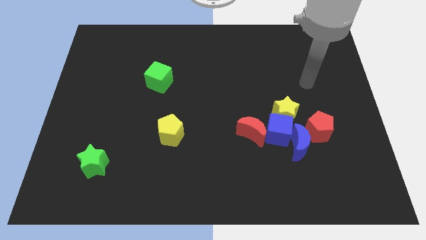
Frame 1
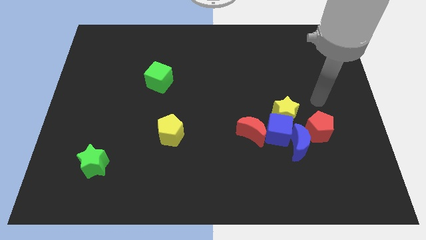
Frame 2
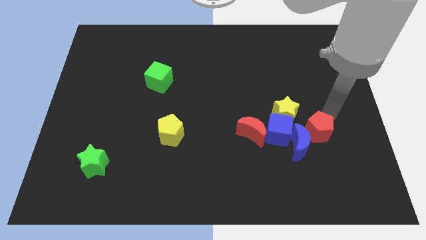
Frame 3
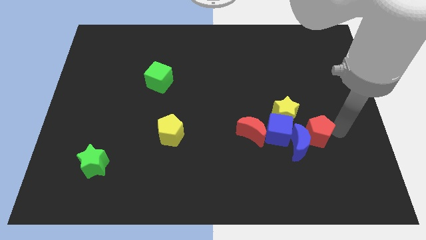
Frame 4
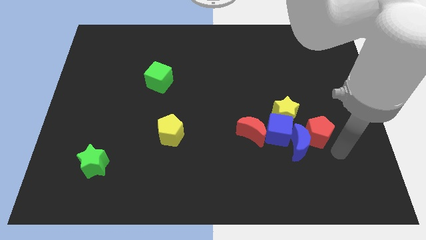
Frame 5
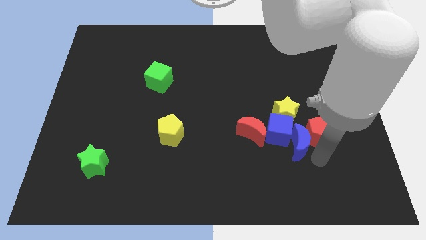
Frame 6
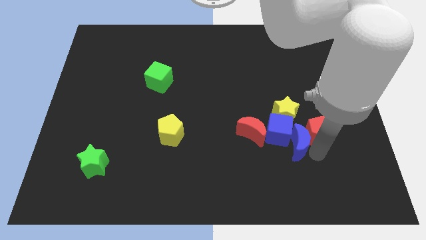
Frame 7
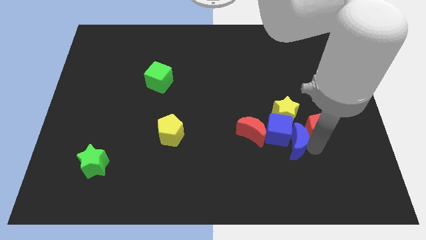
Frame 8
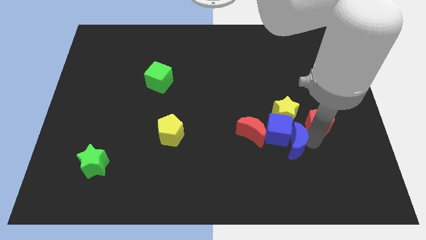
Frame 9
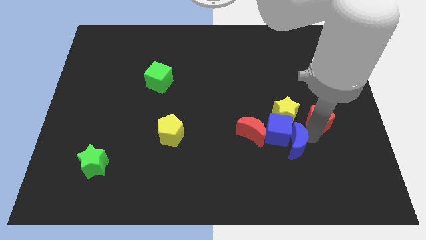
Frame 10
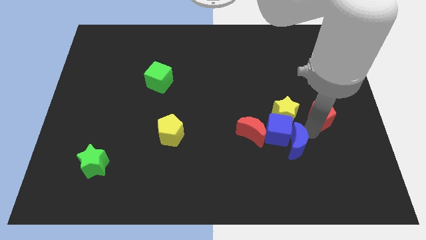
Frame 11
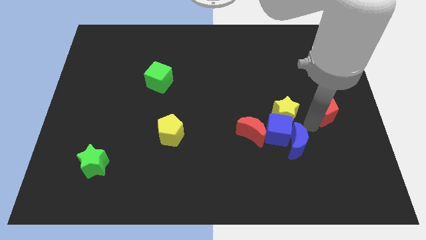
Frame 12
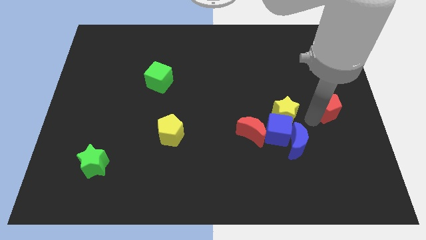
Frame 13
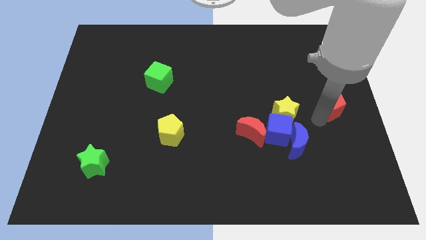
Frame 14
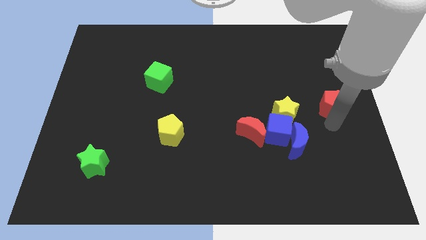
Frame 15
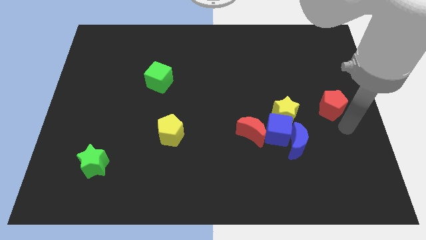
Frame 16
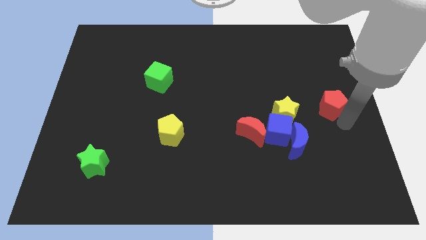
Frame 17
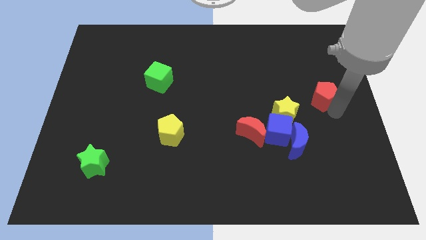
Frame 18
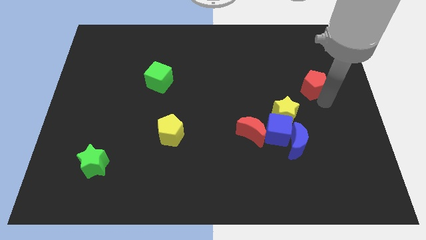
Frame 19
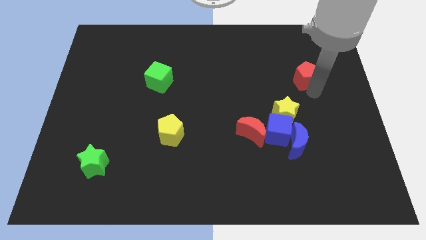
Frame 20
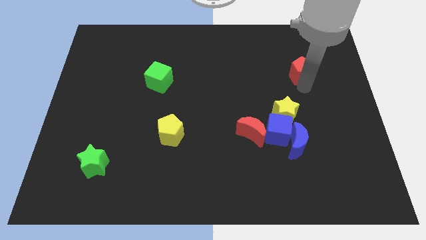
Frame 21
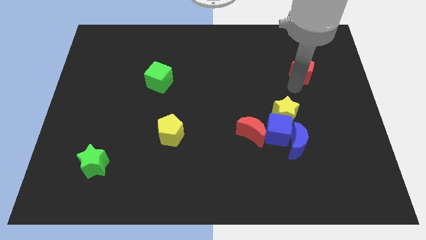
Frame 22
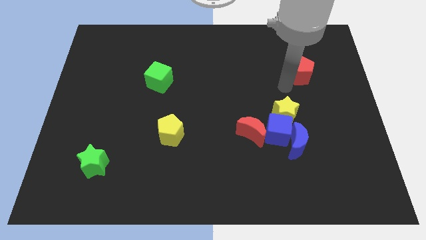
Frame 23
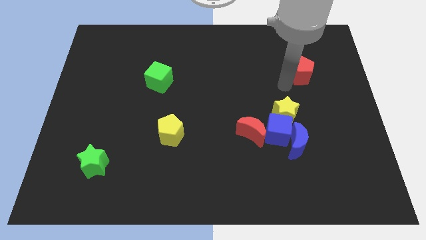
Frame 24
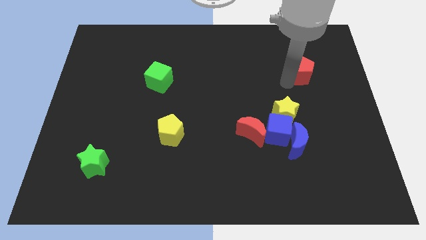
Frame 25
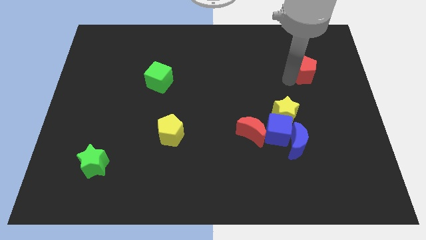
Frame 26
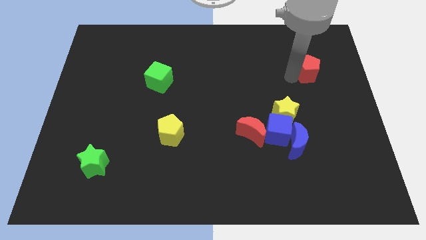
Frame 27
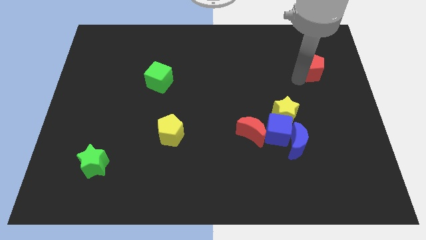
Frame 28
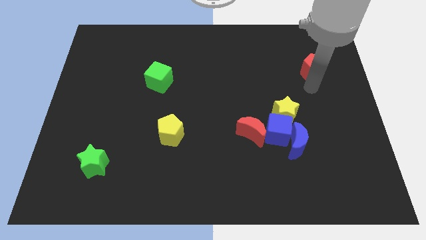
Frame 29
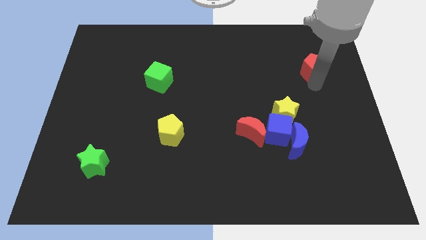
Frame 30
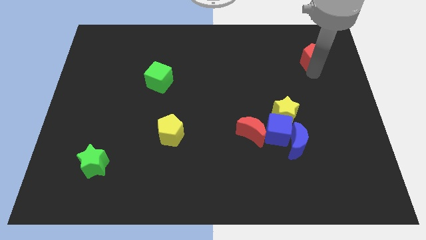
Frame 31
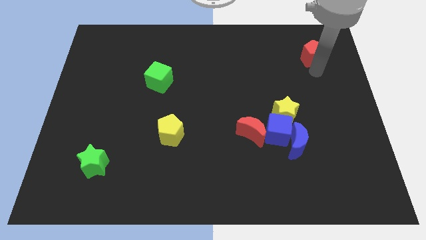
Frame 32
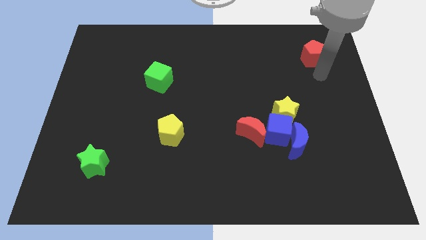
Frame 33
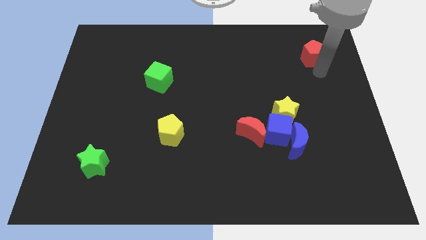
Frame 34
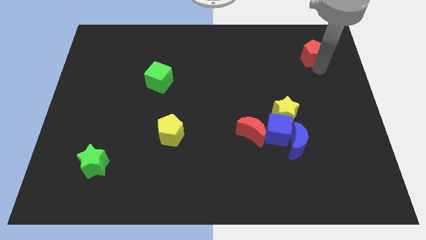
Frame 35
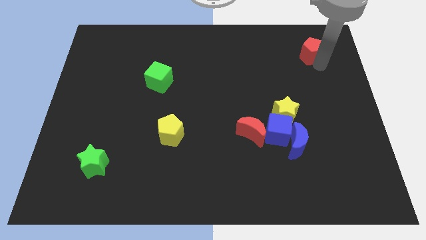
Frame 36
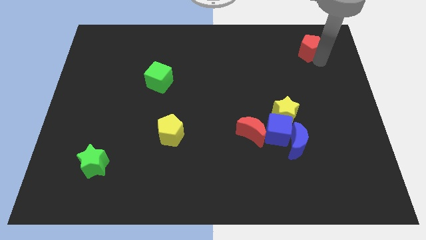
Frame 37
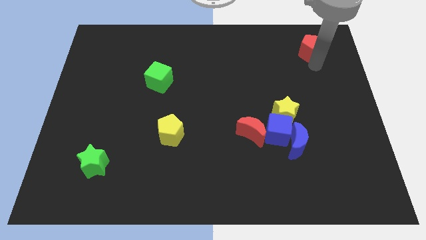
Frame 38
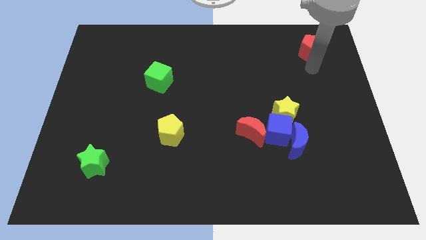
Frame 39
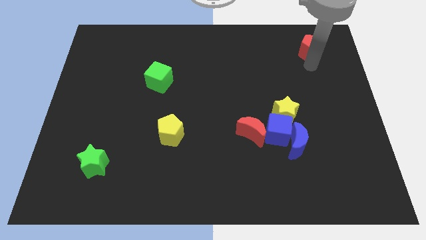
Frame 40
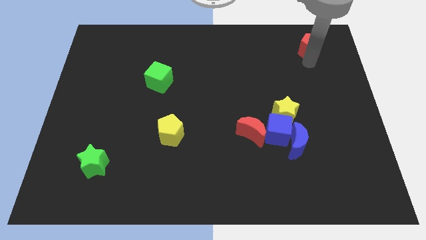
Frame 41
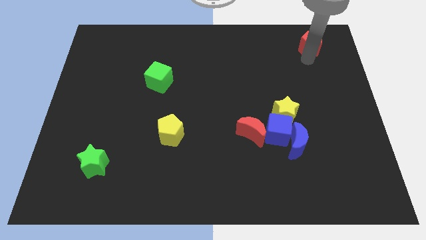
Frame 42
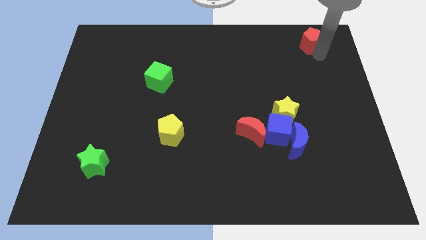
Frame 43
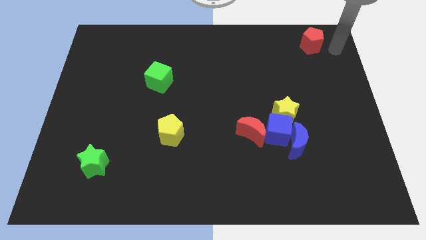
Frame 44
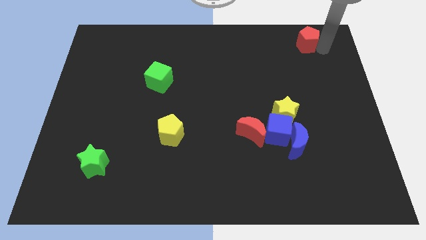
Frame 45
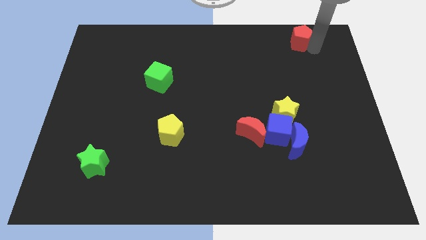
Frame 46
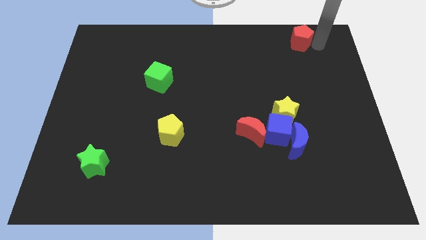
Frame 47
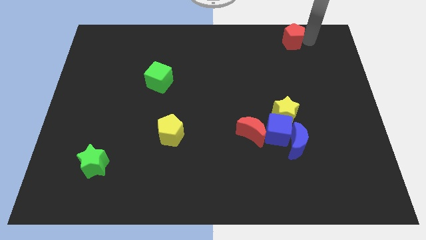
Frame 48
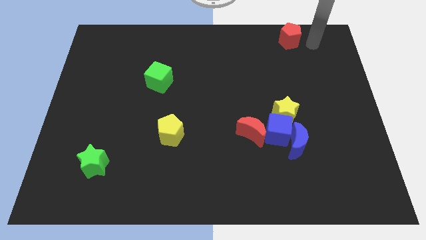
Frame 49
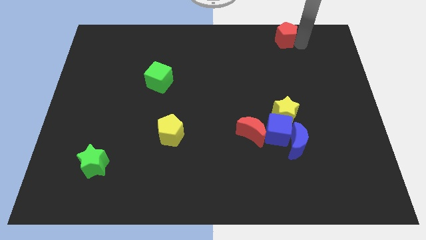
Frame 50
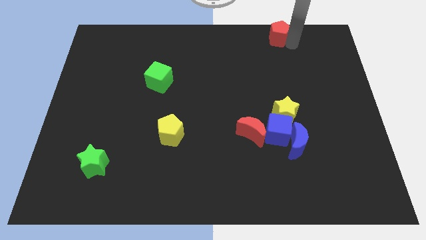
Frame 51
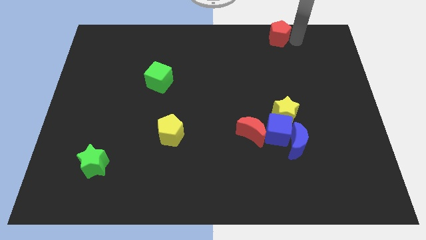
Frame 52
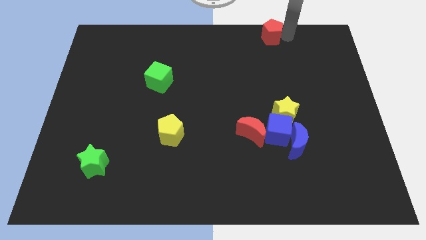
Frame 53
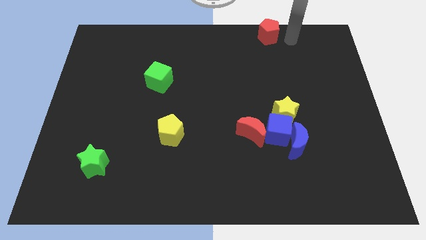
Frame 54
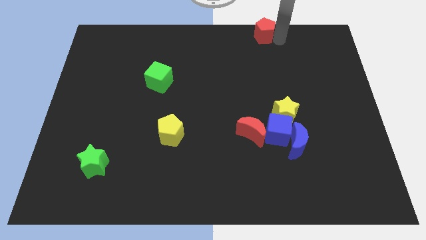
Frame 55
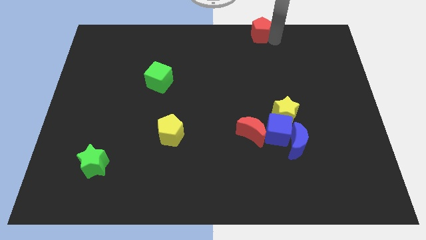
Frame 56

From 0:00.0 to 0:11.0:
push the red pentagon to the top side
